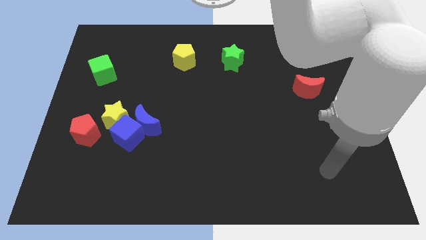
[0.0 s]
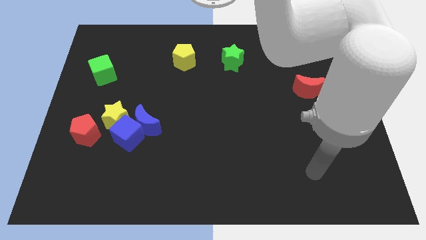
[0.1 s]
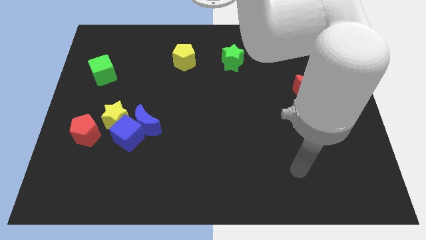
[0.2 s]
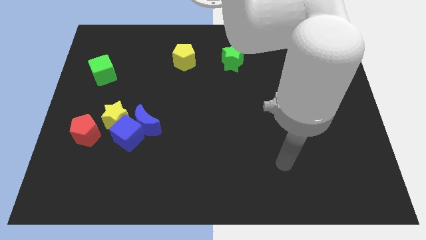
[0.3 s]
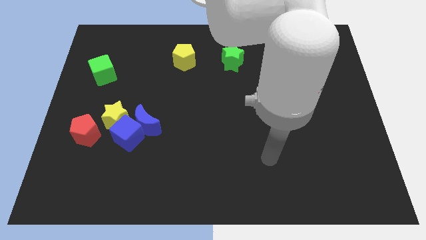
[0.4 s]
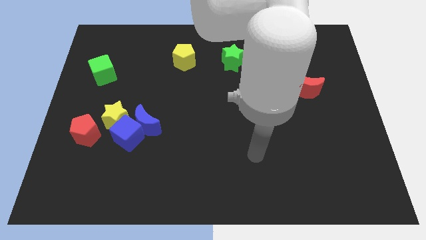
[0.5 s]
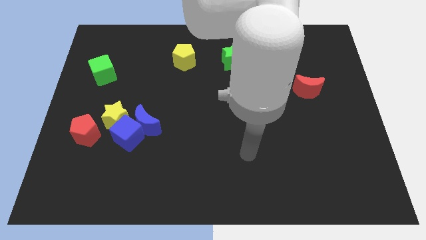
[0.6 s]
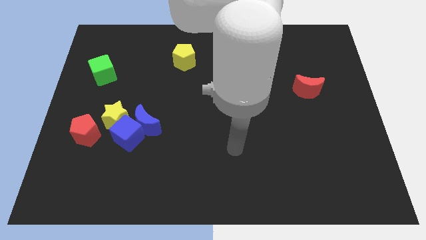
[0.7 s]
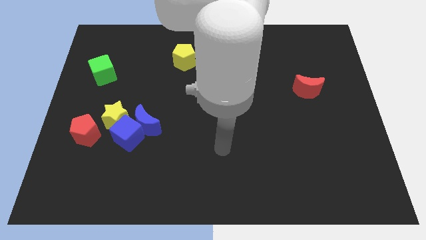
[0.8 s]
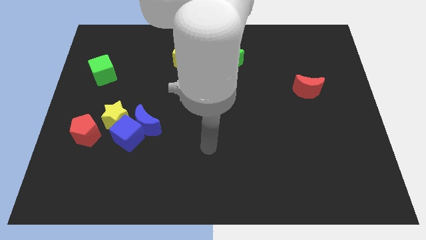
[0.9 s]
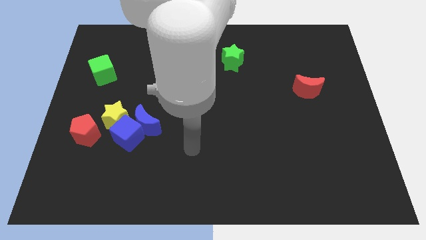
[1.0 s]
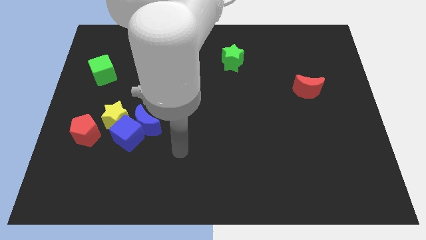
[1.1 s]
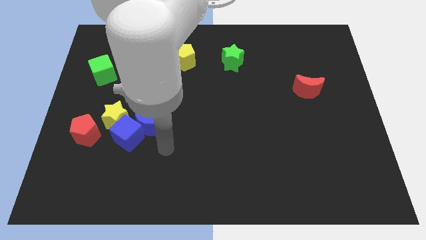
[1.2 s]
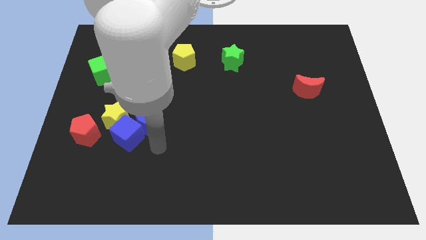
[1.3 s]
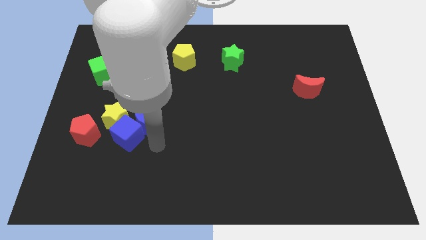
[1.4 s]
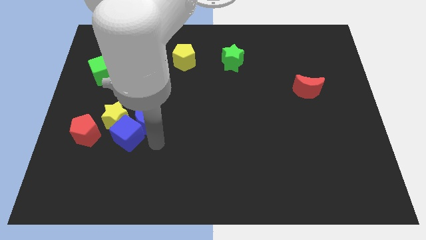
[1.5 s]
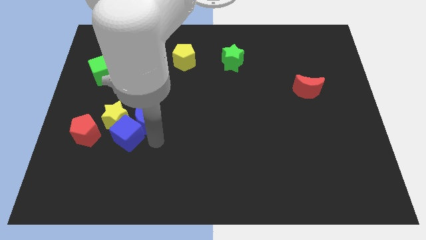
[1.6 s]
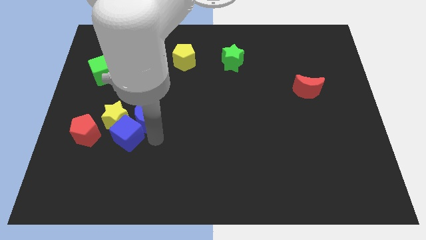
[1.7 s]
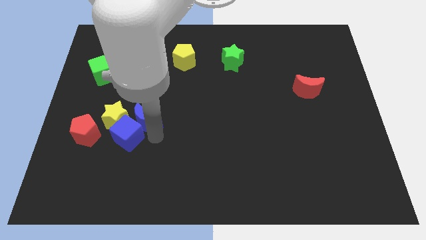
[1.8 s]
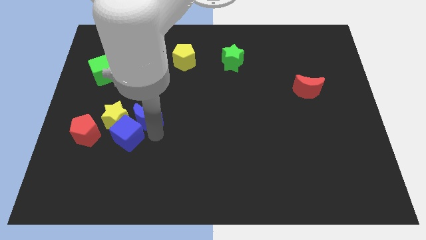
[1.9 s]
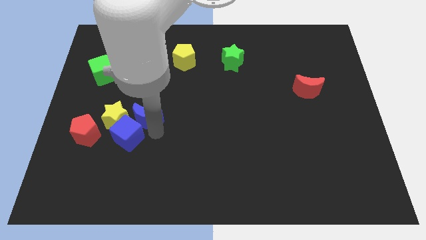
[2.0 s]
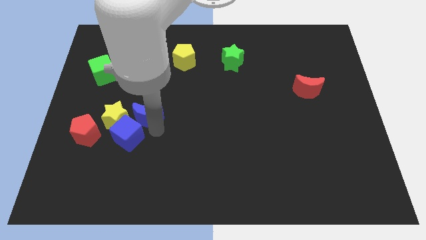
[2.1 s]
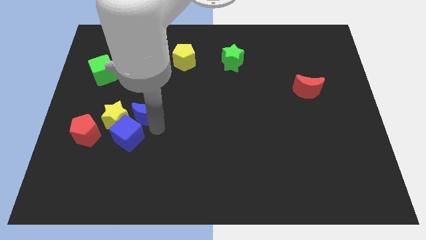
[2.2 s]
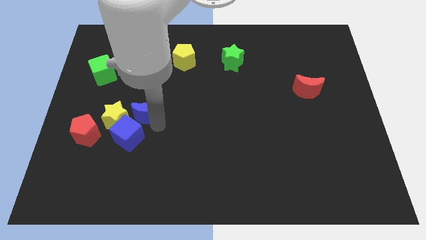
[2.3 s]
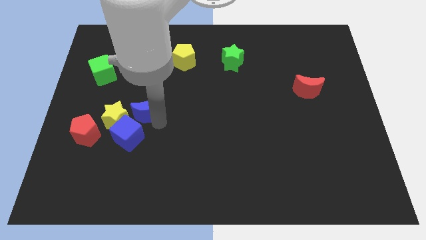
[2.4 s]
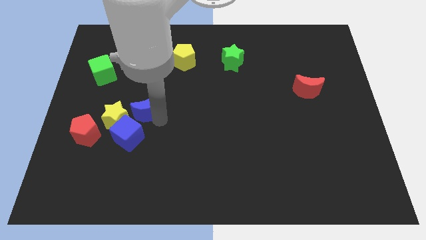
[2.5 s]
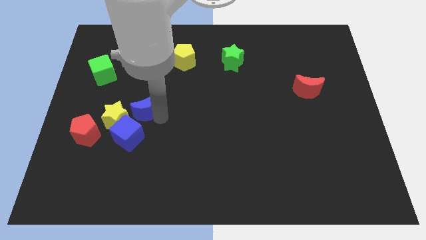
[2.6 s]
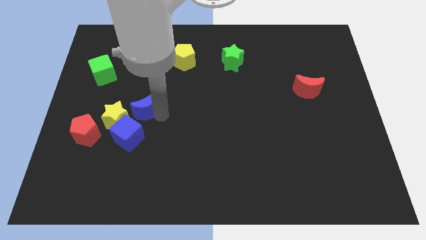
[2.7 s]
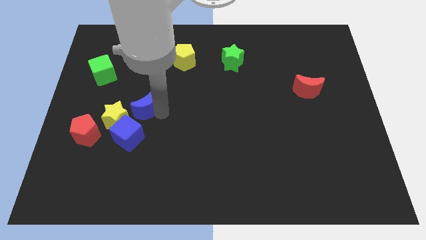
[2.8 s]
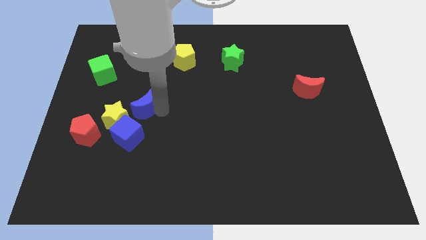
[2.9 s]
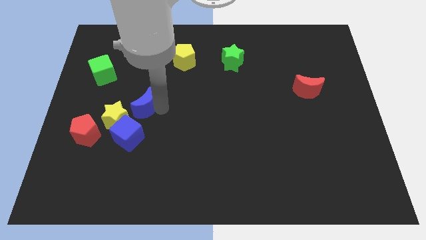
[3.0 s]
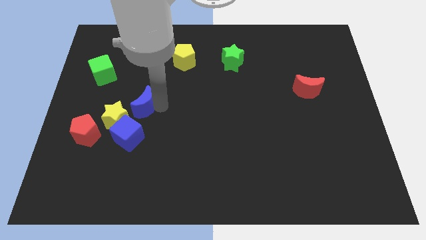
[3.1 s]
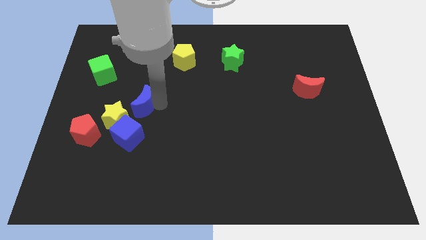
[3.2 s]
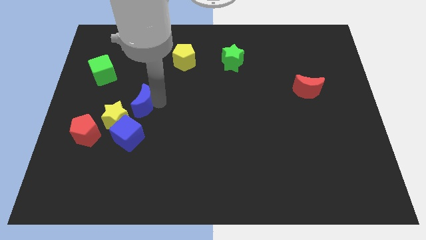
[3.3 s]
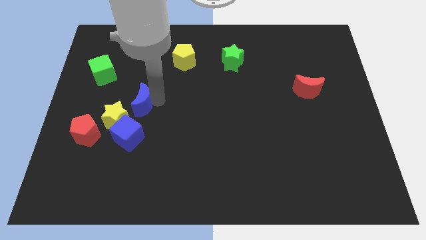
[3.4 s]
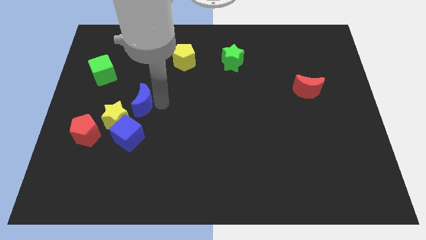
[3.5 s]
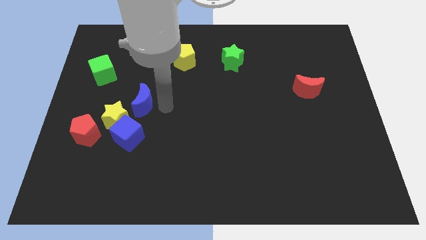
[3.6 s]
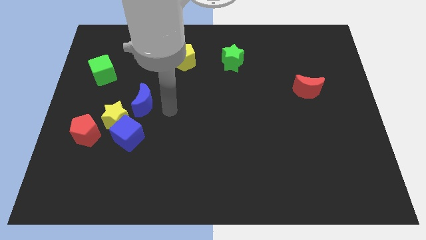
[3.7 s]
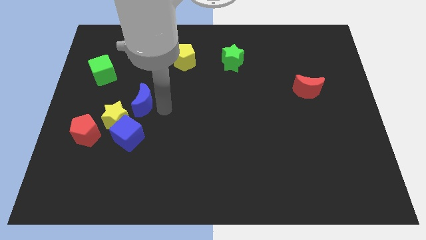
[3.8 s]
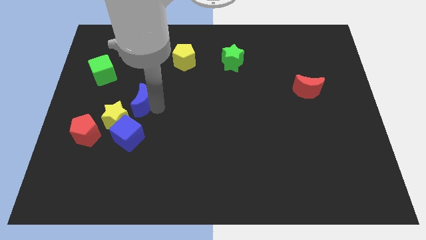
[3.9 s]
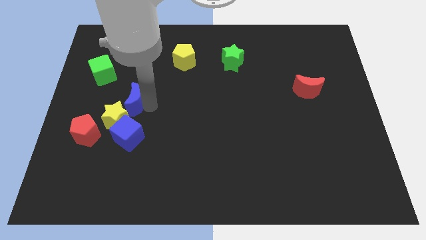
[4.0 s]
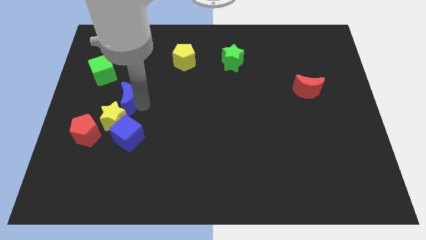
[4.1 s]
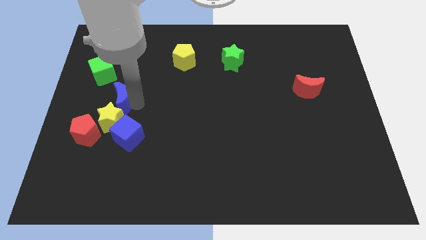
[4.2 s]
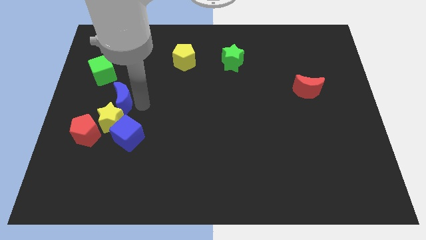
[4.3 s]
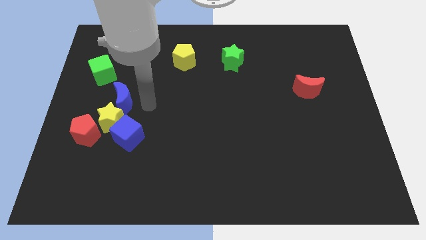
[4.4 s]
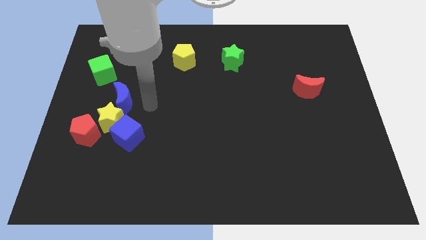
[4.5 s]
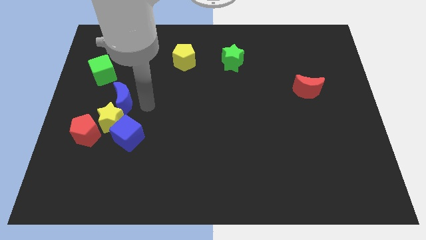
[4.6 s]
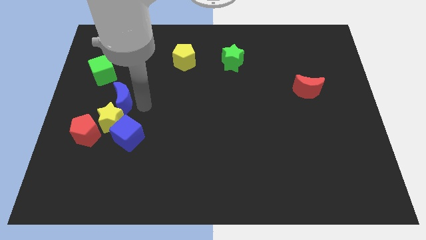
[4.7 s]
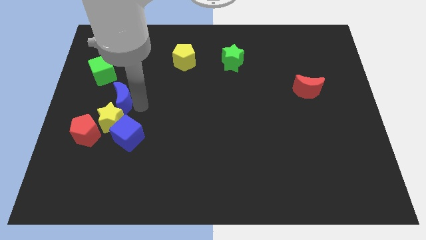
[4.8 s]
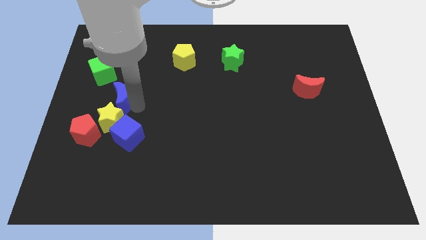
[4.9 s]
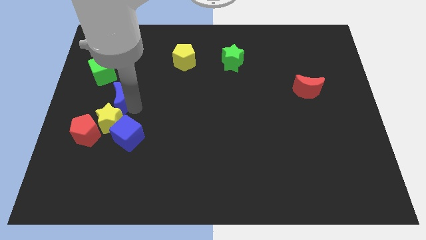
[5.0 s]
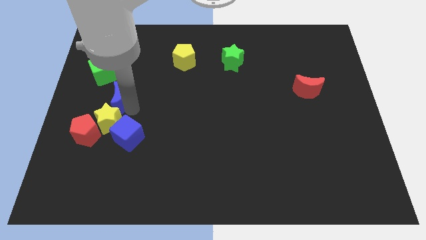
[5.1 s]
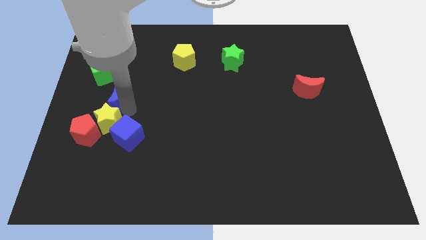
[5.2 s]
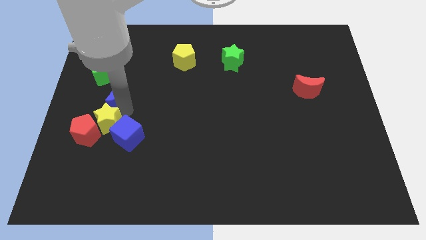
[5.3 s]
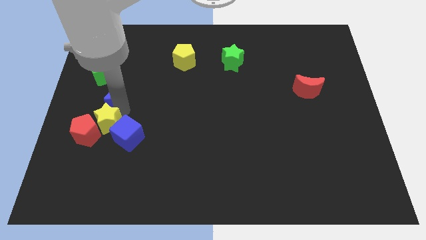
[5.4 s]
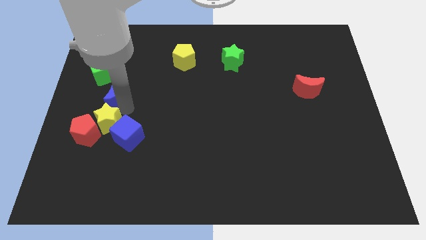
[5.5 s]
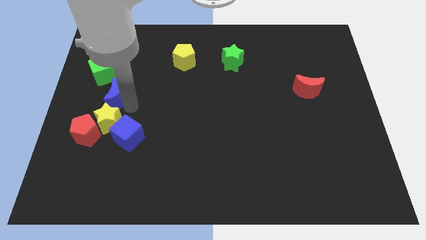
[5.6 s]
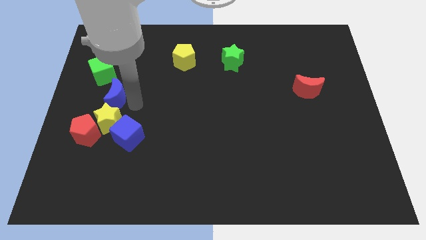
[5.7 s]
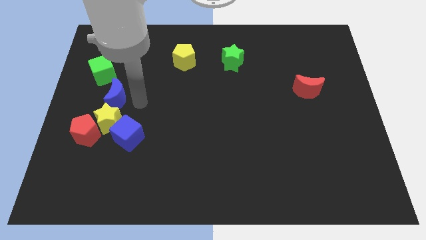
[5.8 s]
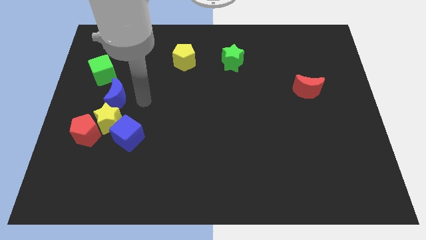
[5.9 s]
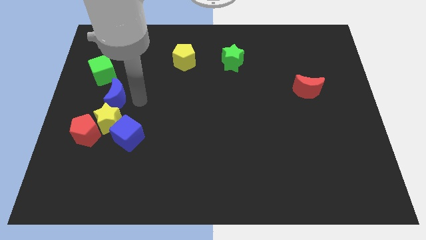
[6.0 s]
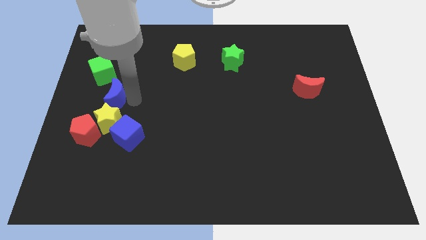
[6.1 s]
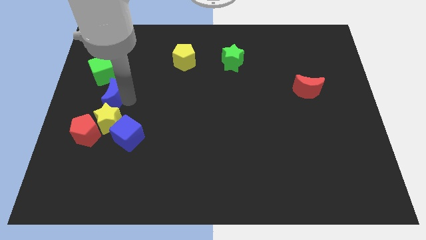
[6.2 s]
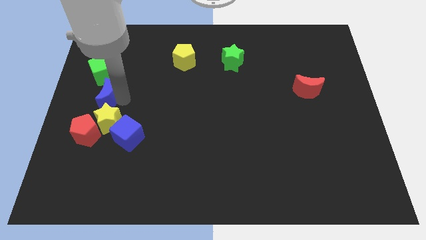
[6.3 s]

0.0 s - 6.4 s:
slide the blue moon to the center left
